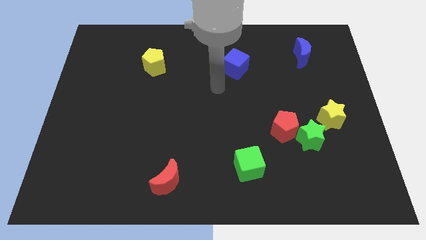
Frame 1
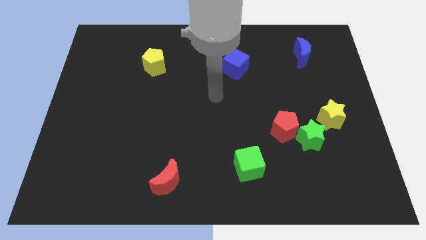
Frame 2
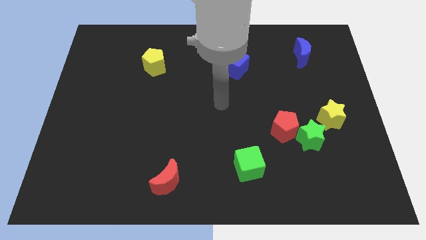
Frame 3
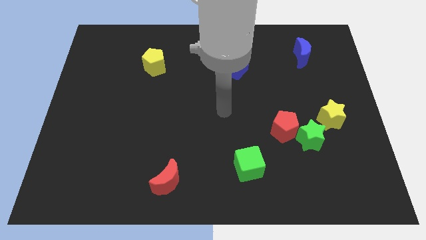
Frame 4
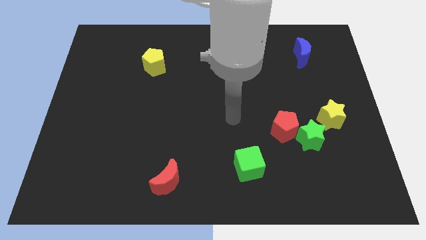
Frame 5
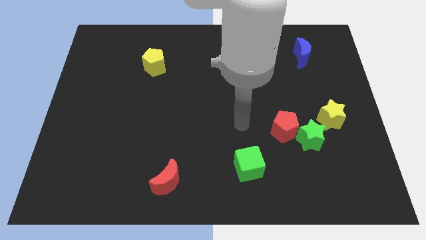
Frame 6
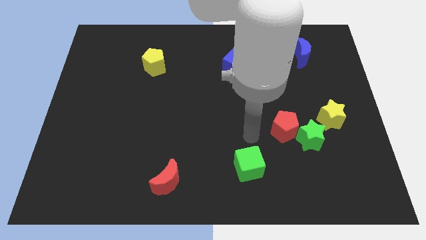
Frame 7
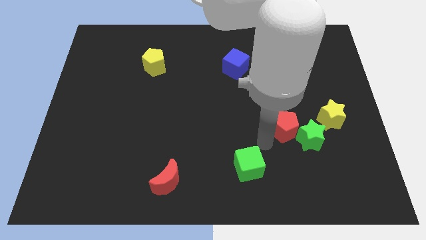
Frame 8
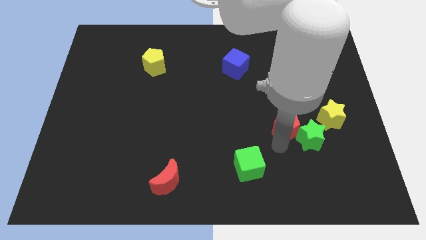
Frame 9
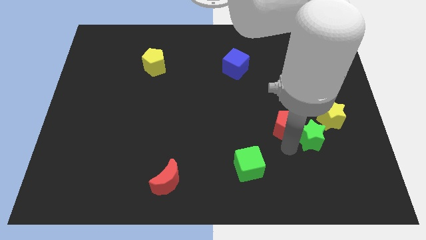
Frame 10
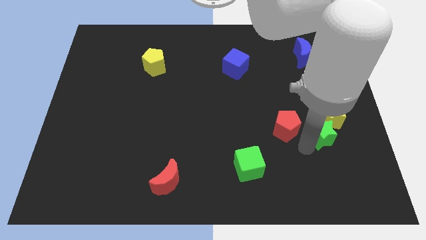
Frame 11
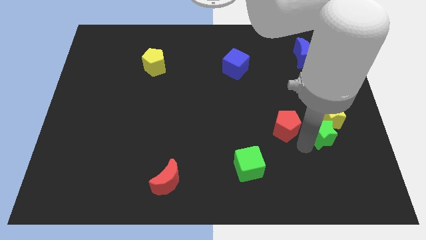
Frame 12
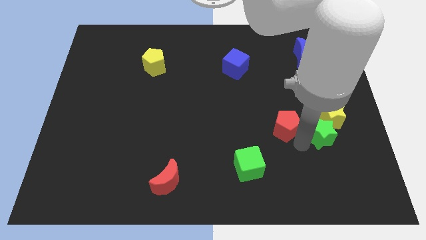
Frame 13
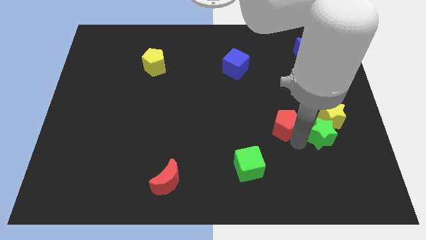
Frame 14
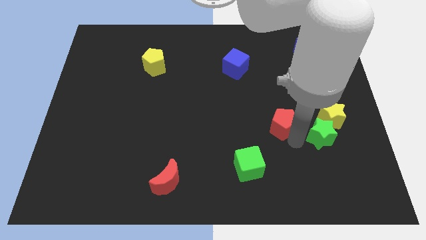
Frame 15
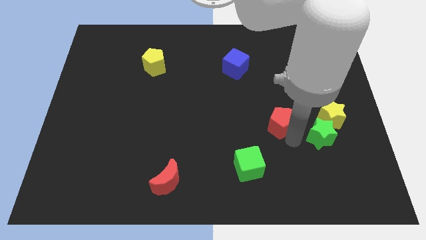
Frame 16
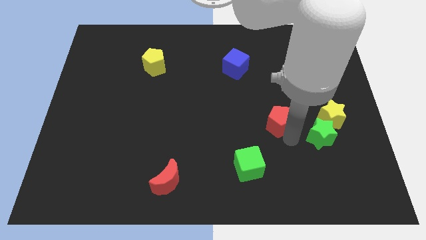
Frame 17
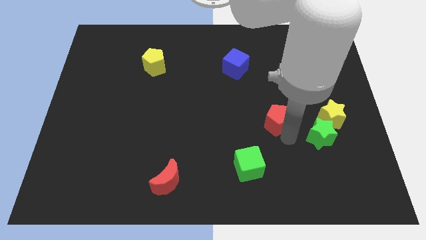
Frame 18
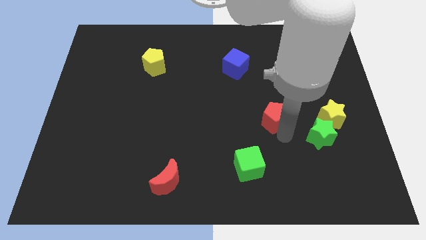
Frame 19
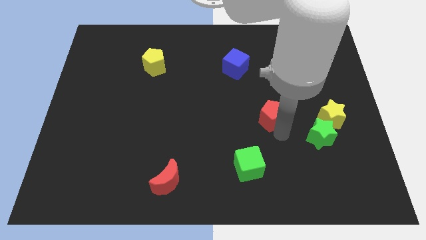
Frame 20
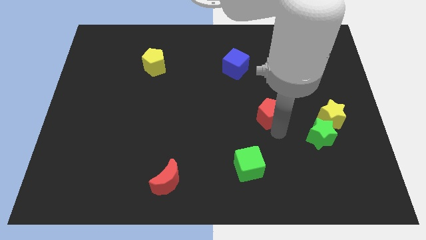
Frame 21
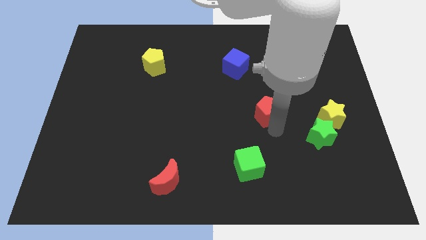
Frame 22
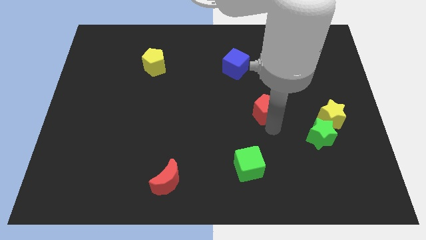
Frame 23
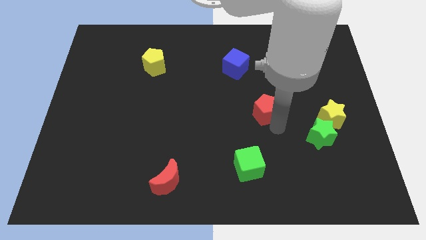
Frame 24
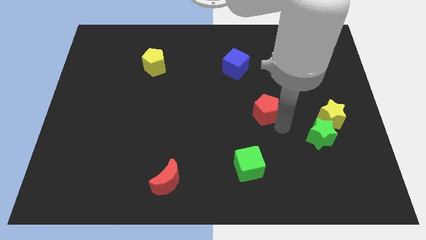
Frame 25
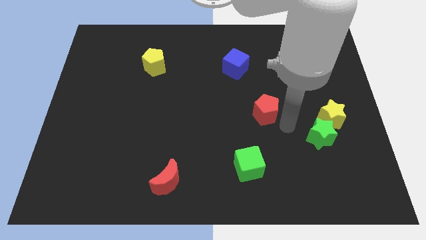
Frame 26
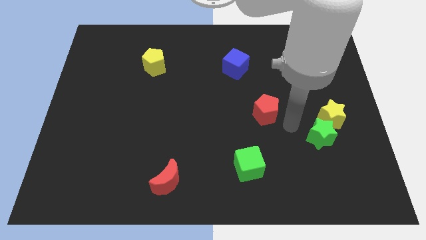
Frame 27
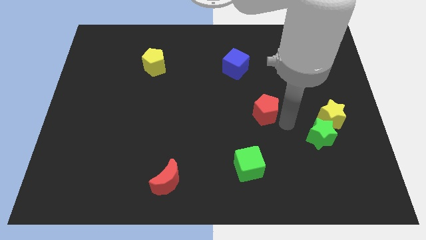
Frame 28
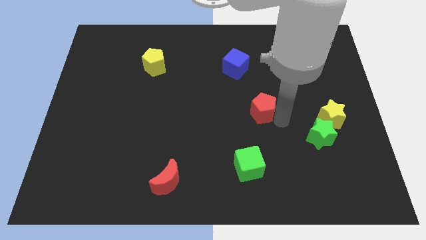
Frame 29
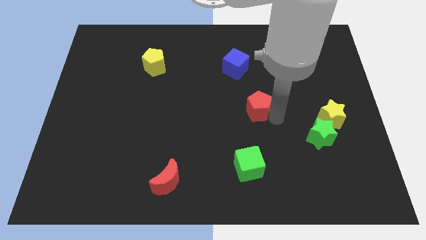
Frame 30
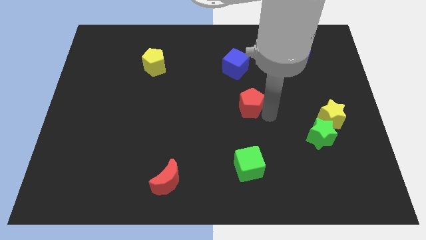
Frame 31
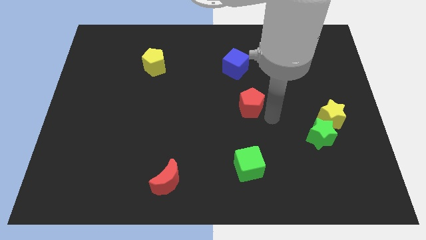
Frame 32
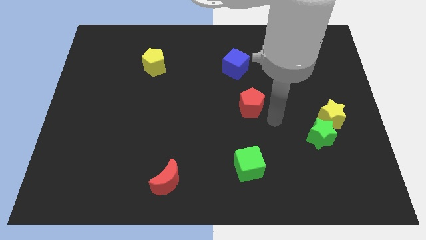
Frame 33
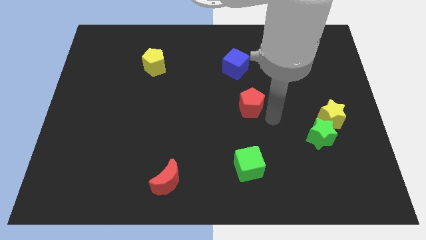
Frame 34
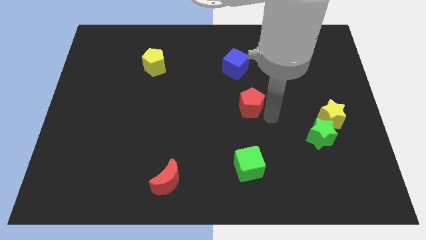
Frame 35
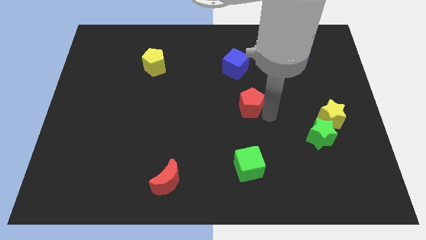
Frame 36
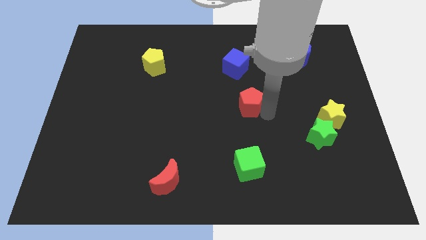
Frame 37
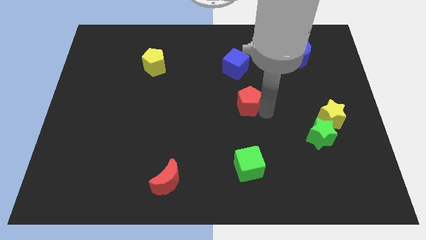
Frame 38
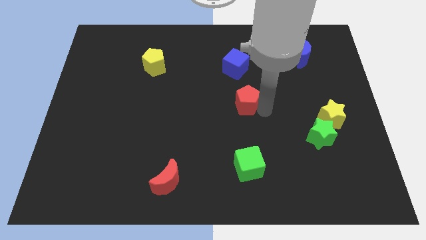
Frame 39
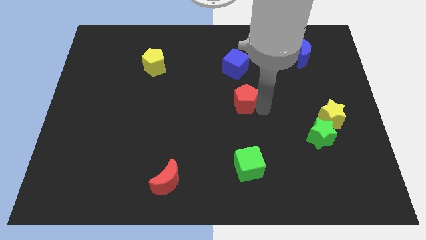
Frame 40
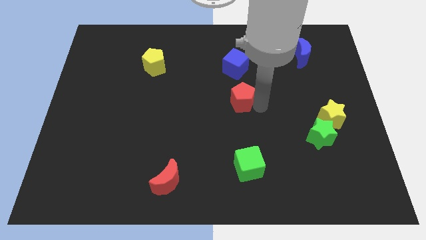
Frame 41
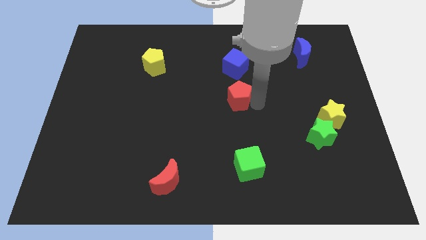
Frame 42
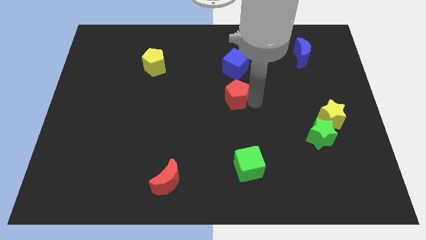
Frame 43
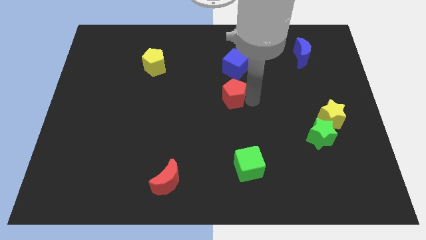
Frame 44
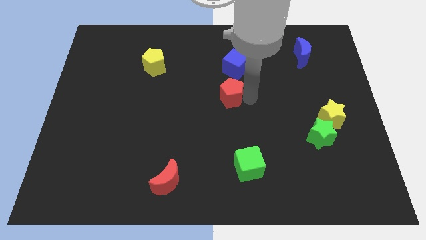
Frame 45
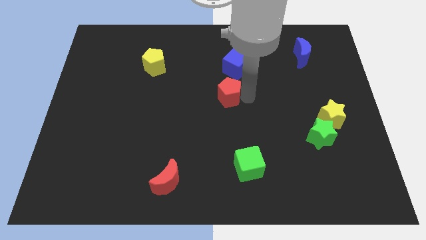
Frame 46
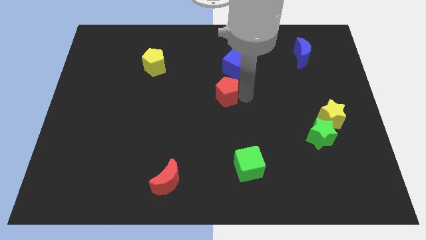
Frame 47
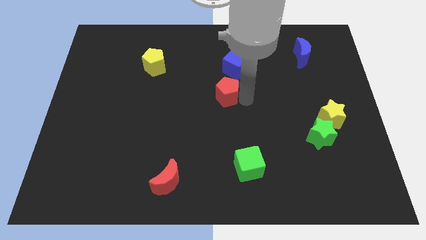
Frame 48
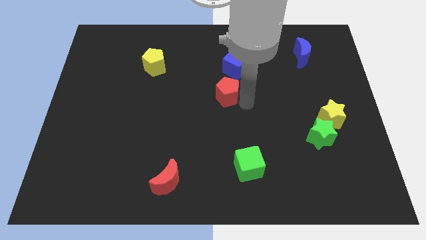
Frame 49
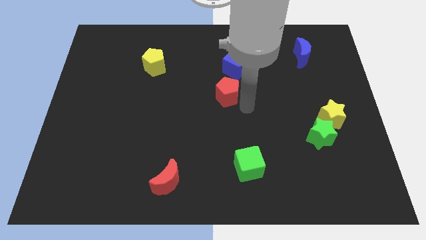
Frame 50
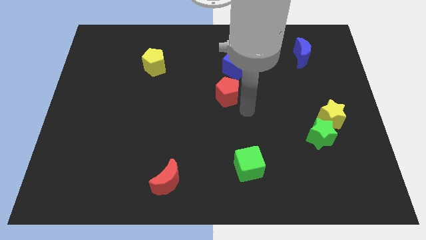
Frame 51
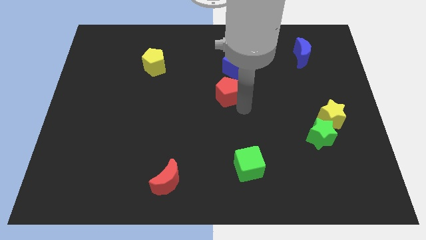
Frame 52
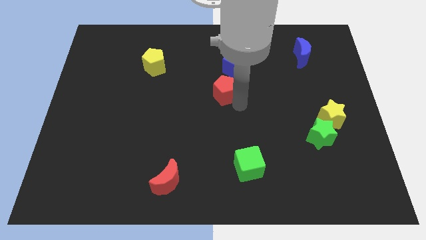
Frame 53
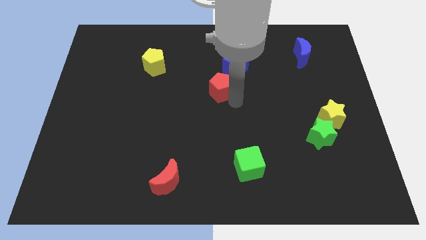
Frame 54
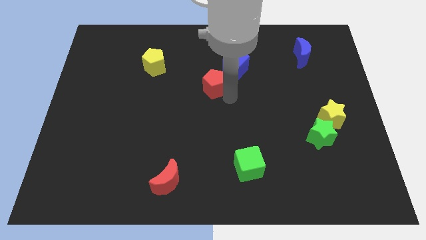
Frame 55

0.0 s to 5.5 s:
slide the red pentagon up and then left

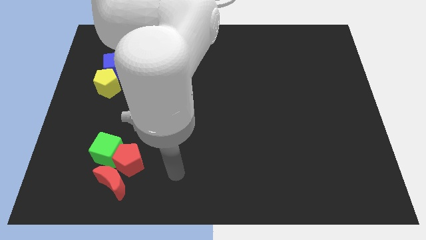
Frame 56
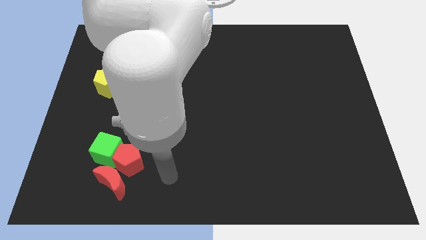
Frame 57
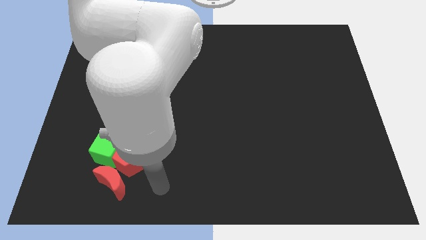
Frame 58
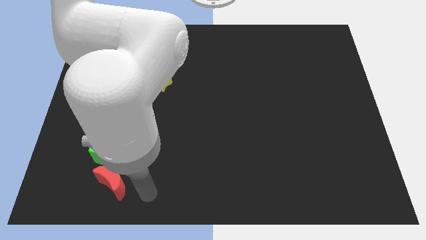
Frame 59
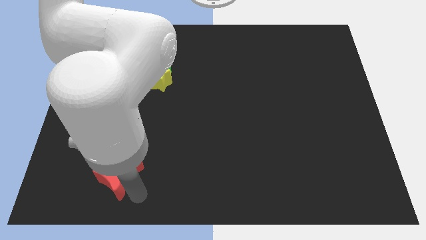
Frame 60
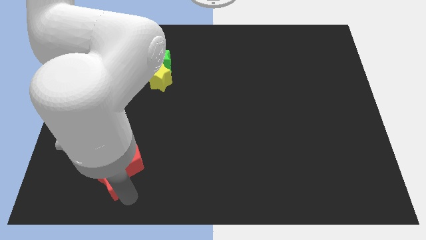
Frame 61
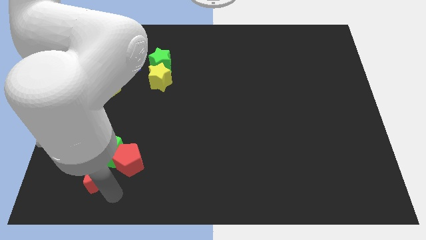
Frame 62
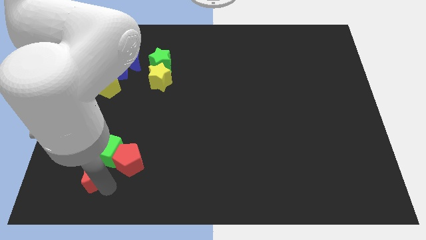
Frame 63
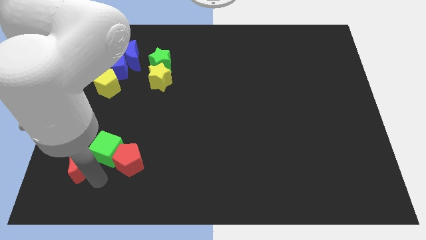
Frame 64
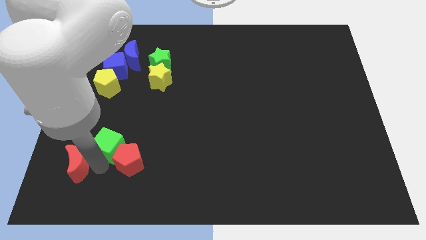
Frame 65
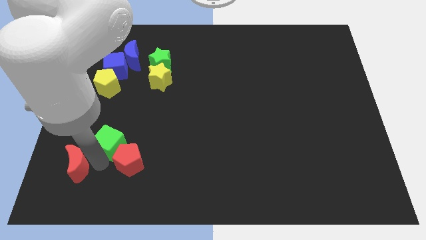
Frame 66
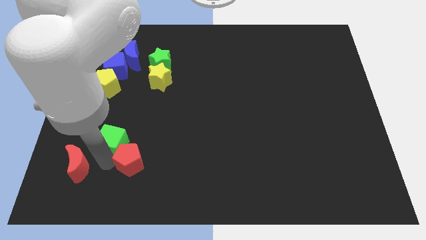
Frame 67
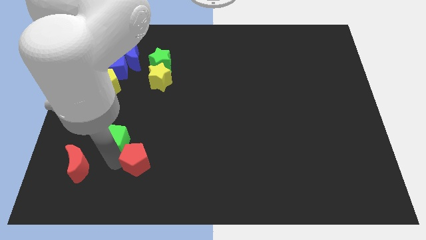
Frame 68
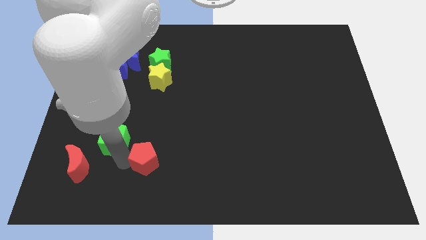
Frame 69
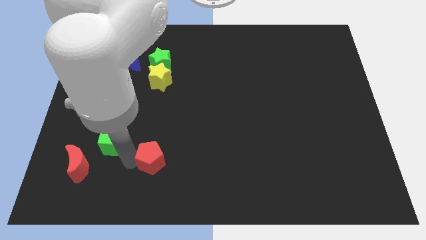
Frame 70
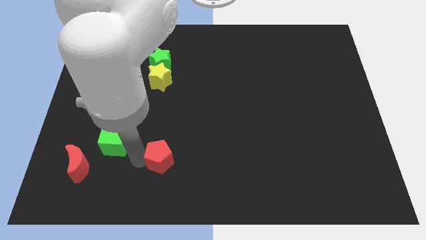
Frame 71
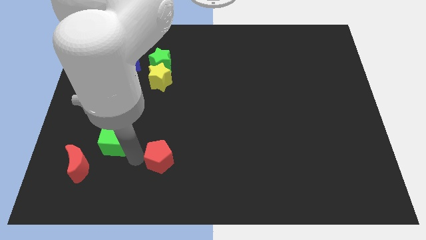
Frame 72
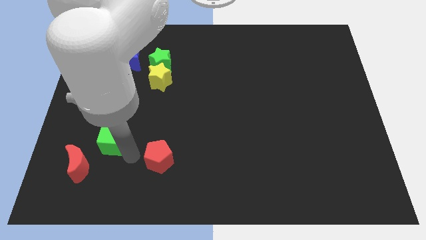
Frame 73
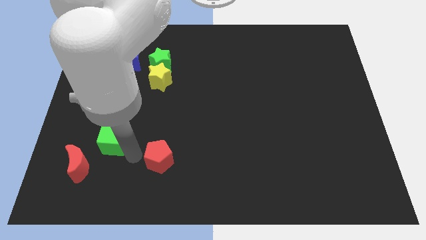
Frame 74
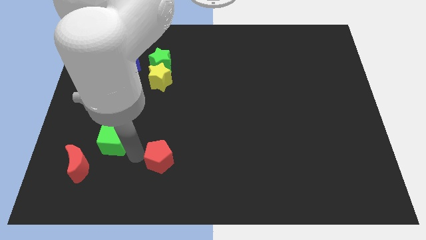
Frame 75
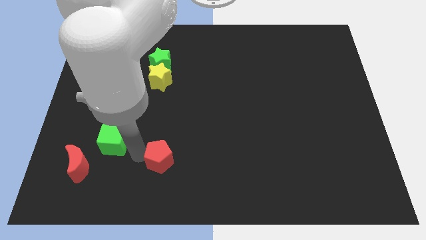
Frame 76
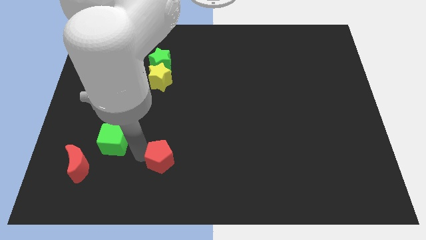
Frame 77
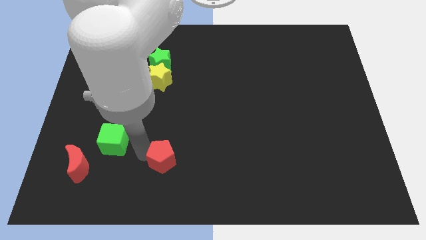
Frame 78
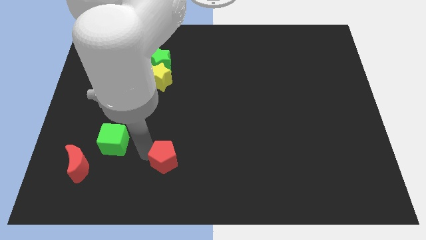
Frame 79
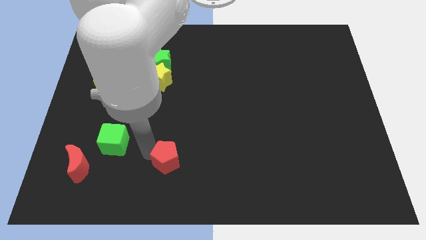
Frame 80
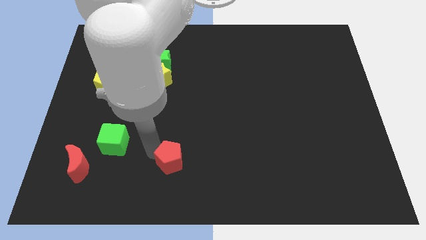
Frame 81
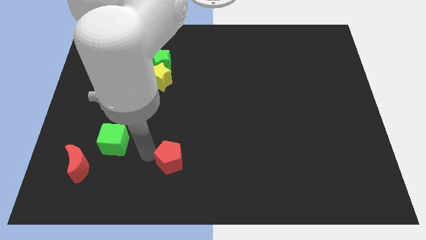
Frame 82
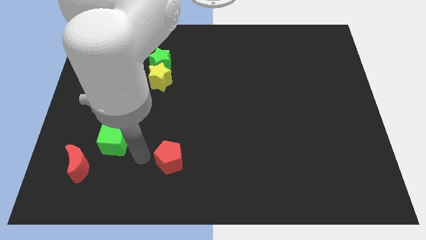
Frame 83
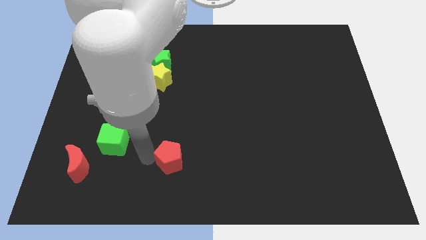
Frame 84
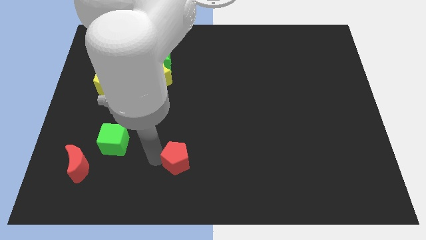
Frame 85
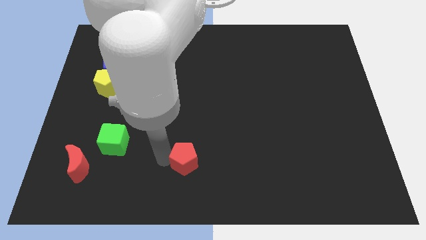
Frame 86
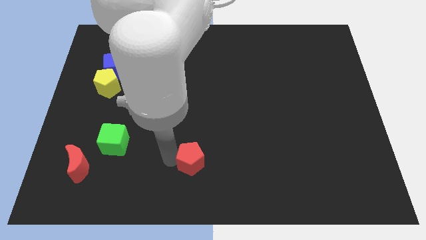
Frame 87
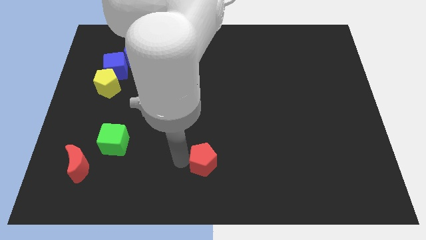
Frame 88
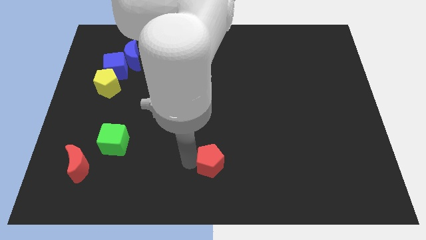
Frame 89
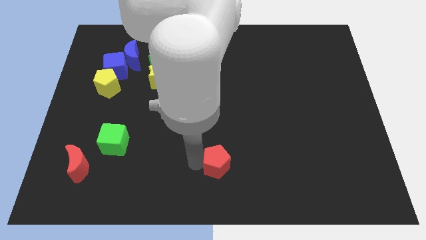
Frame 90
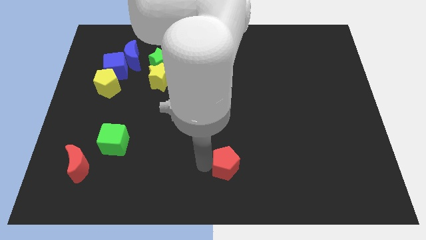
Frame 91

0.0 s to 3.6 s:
push the red pentagon right
